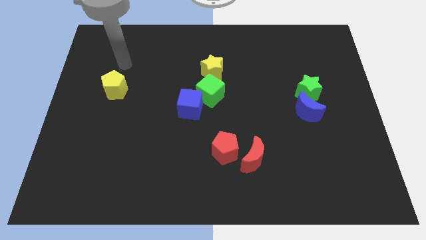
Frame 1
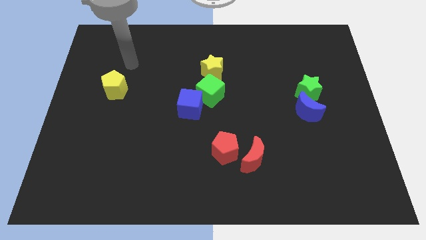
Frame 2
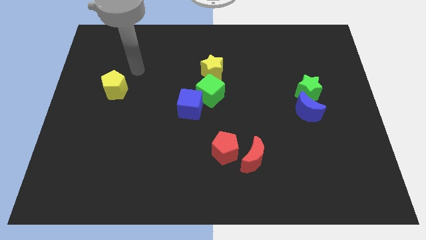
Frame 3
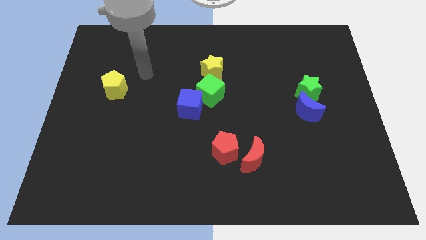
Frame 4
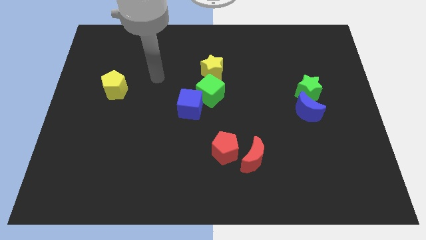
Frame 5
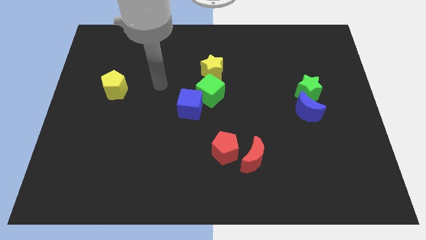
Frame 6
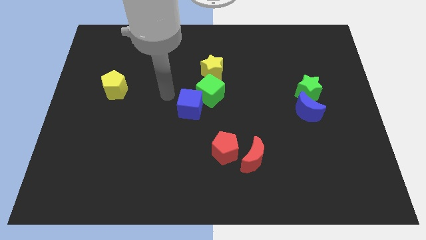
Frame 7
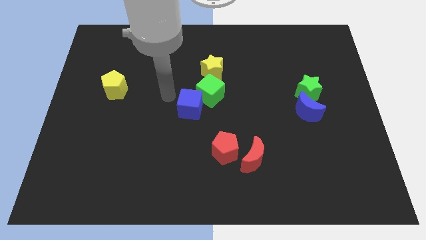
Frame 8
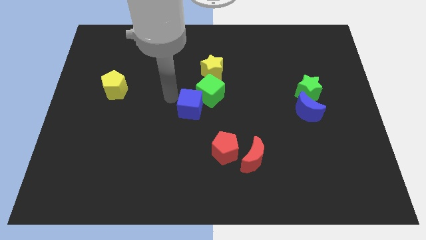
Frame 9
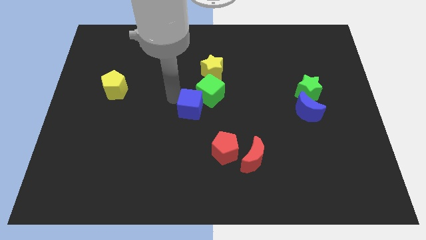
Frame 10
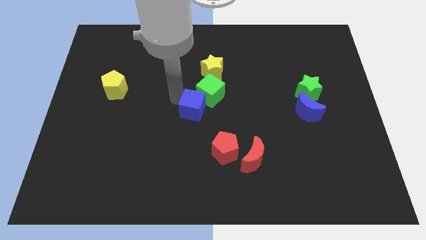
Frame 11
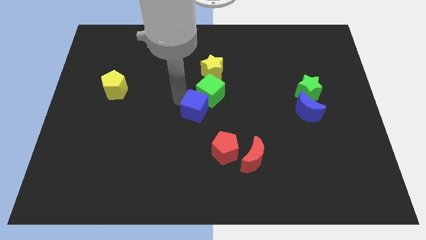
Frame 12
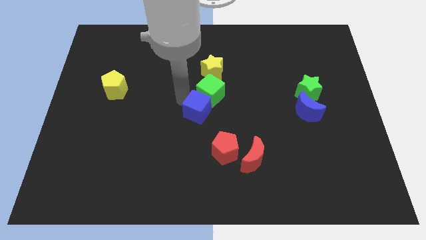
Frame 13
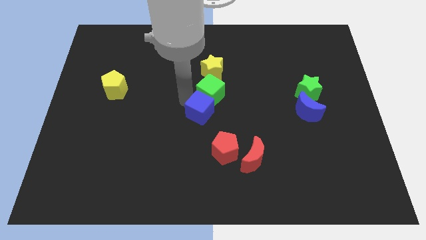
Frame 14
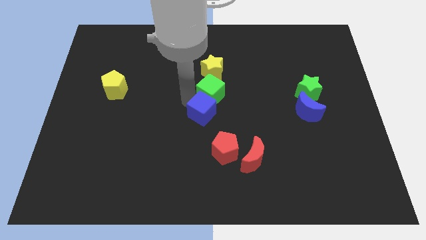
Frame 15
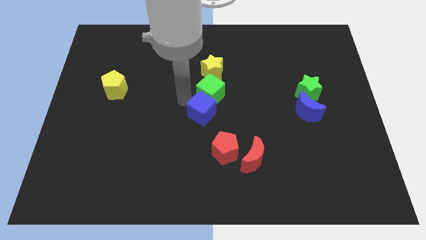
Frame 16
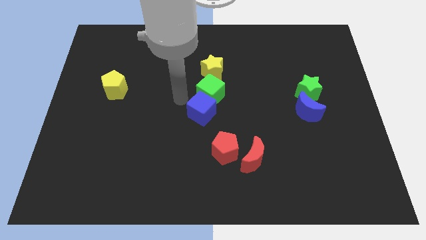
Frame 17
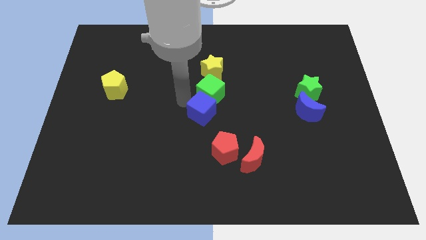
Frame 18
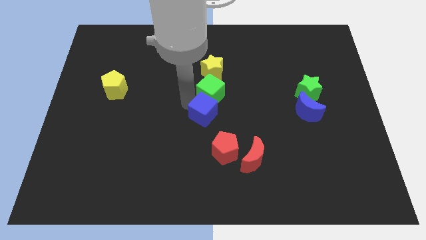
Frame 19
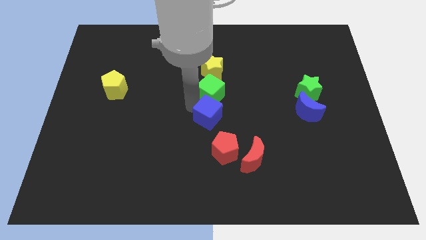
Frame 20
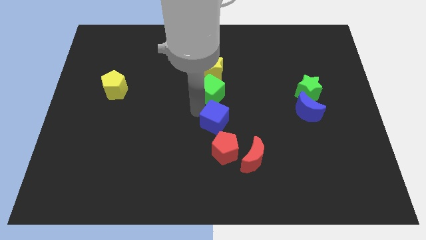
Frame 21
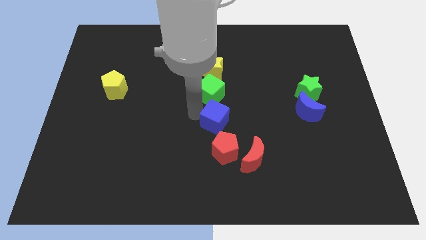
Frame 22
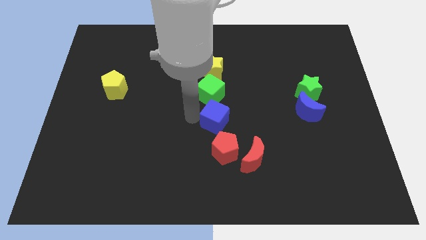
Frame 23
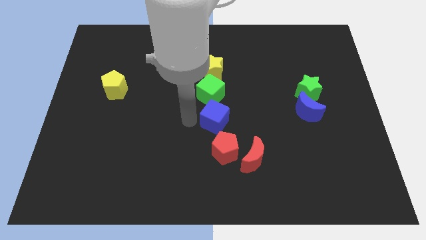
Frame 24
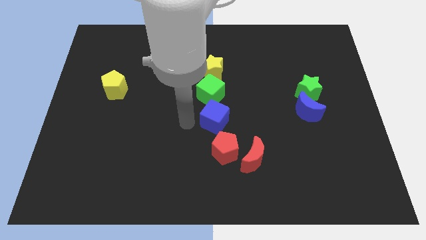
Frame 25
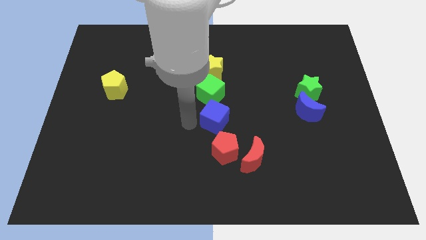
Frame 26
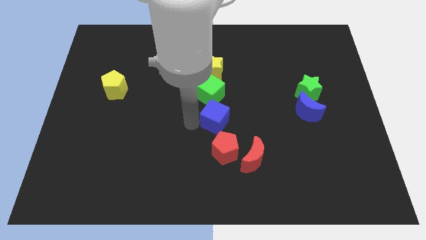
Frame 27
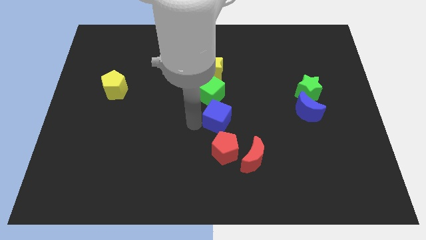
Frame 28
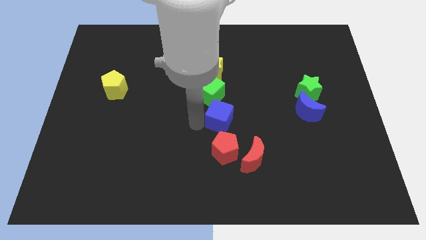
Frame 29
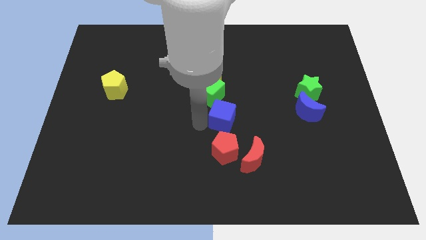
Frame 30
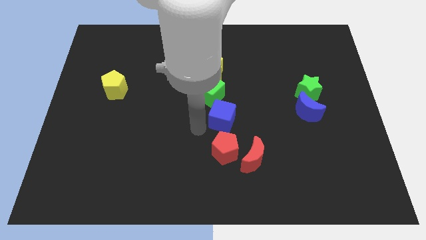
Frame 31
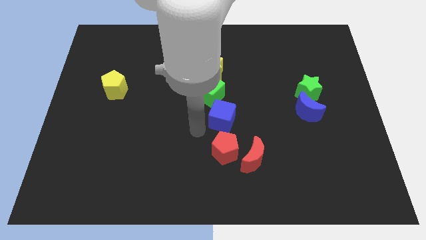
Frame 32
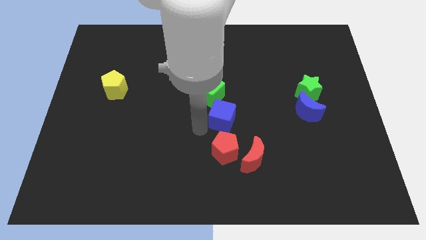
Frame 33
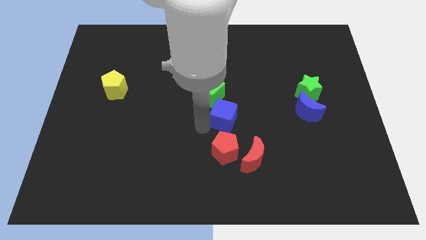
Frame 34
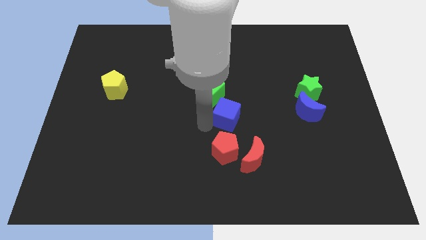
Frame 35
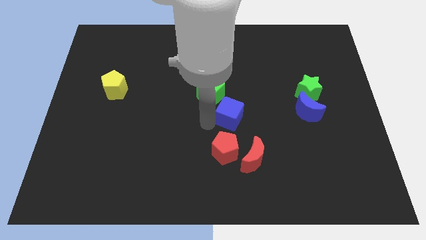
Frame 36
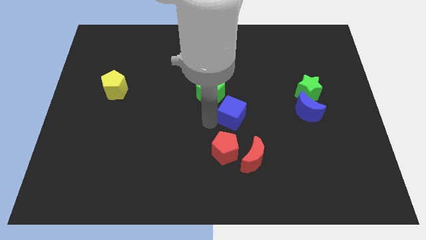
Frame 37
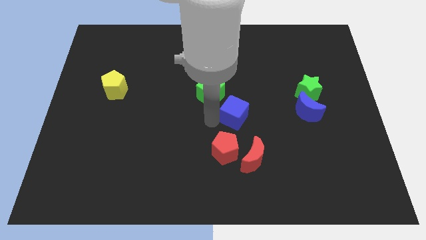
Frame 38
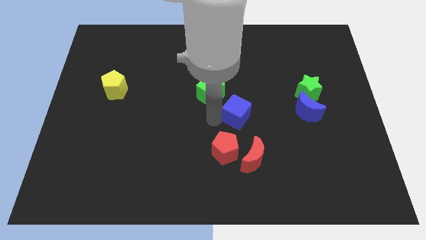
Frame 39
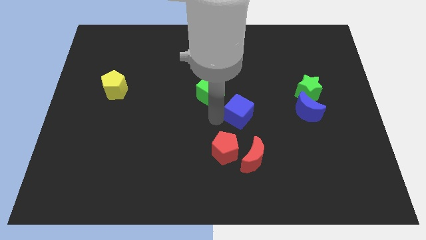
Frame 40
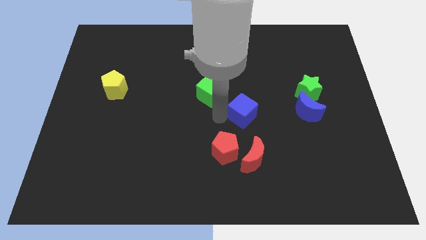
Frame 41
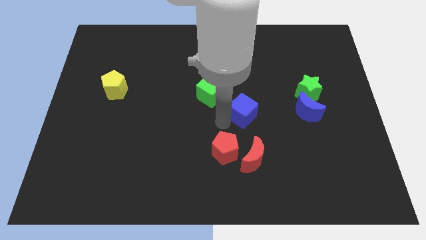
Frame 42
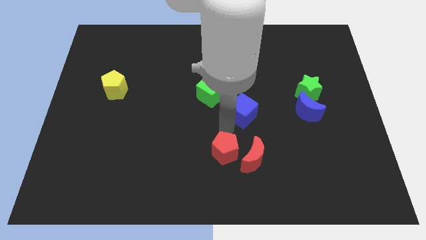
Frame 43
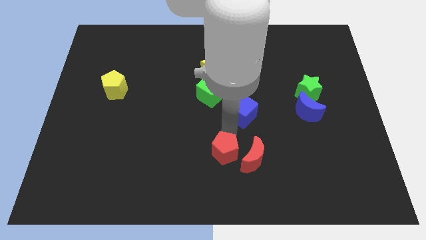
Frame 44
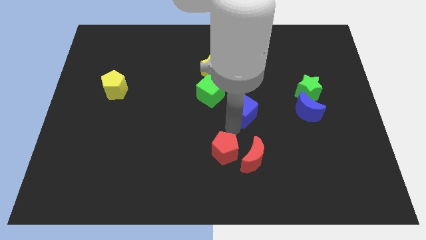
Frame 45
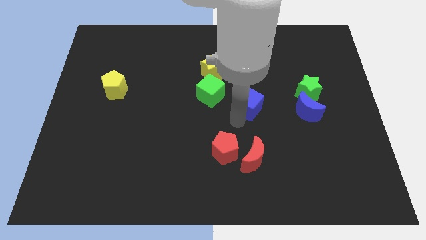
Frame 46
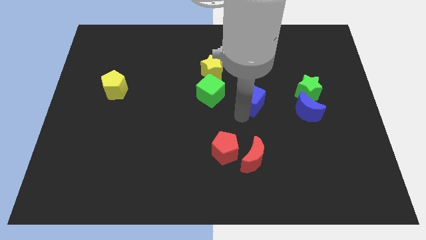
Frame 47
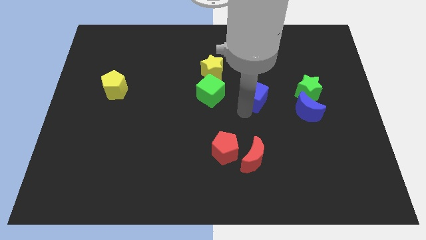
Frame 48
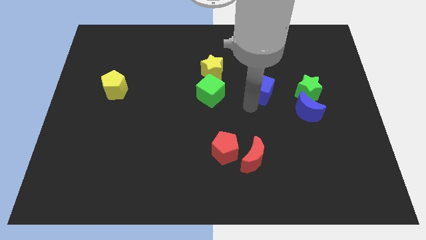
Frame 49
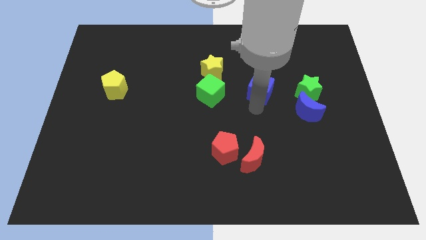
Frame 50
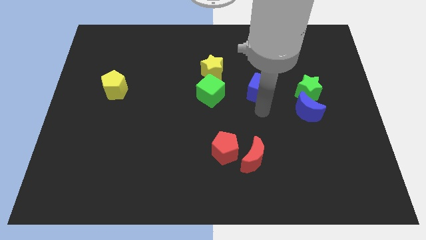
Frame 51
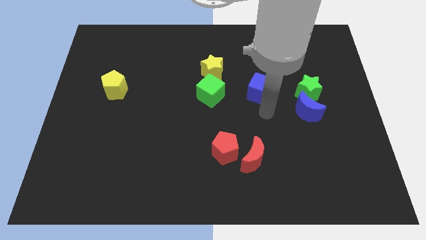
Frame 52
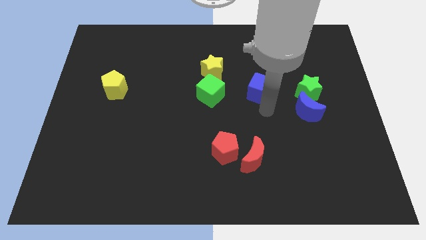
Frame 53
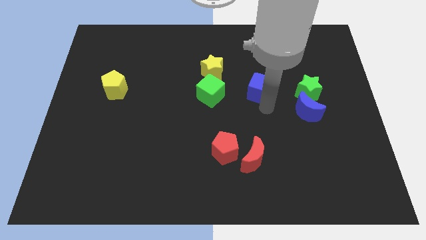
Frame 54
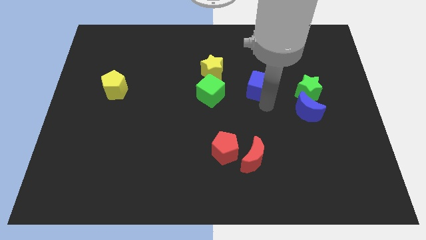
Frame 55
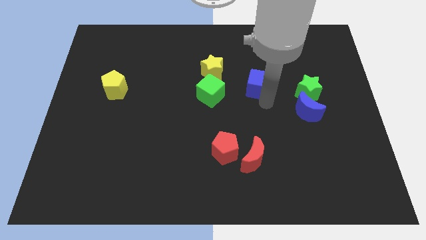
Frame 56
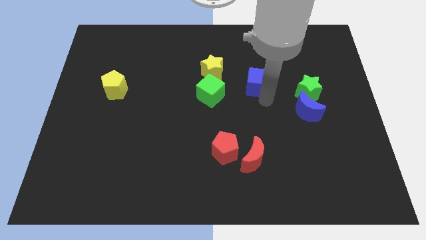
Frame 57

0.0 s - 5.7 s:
move the blue cube just right of the yellow star

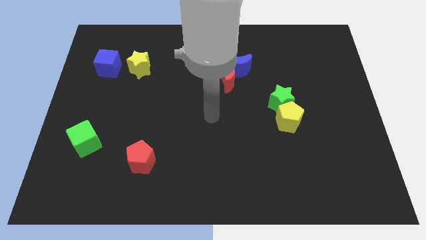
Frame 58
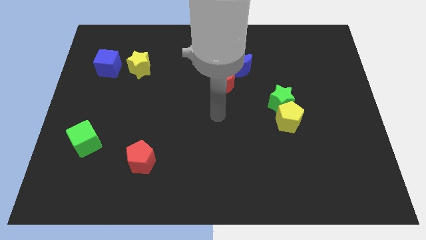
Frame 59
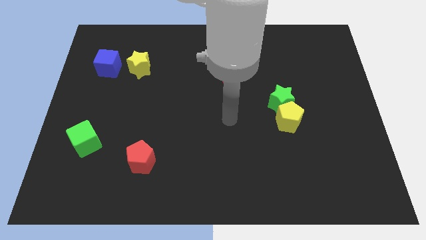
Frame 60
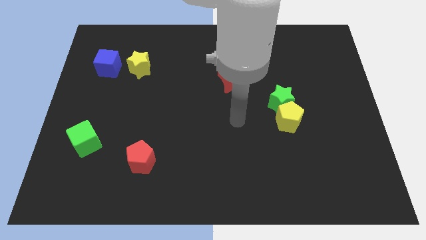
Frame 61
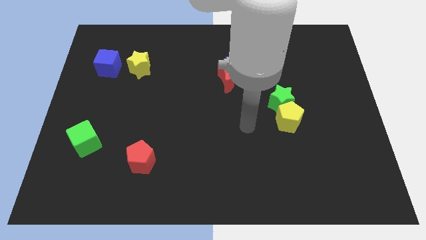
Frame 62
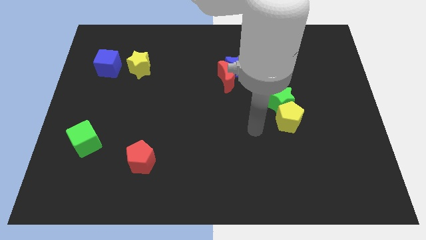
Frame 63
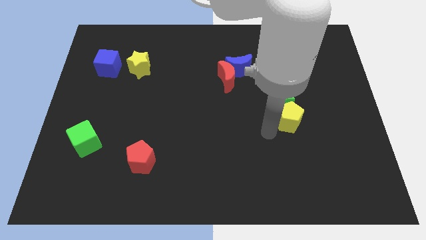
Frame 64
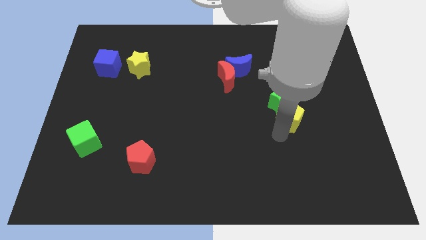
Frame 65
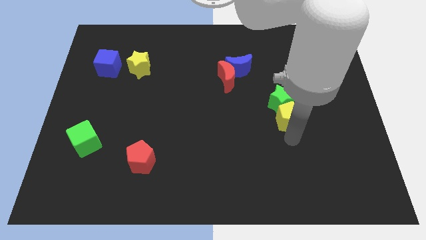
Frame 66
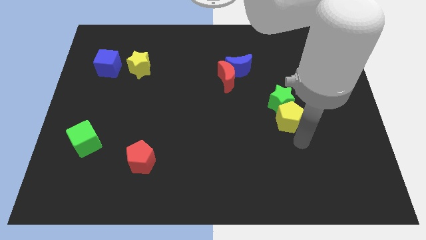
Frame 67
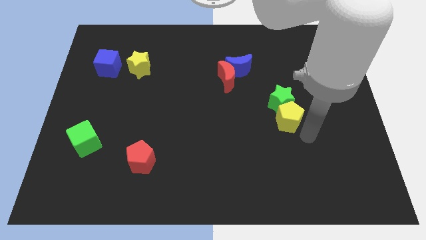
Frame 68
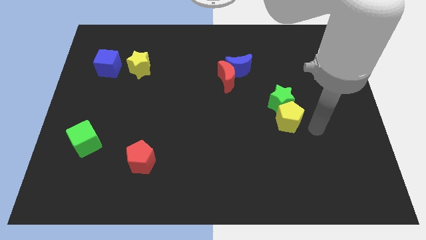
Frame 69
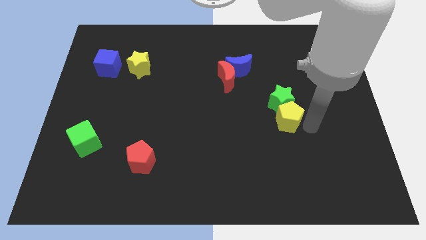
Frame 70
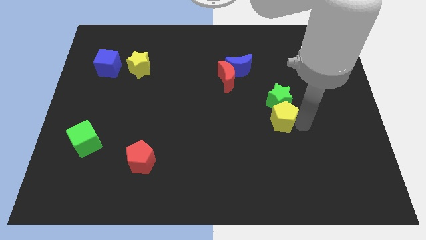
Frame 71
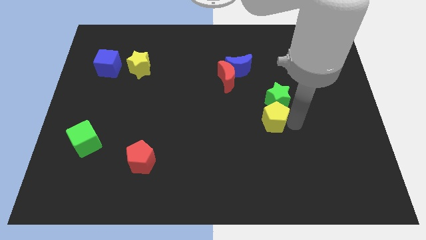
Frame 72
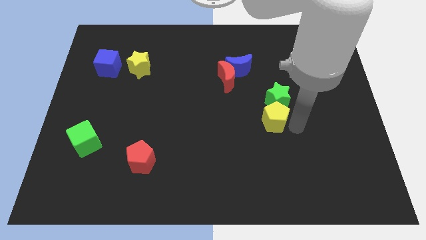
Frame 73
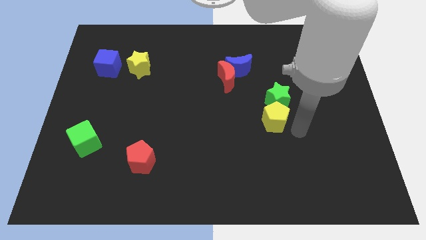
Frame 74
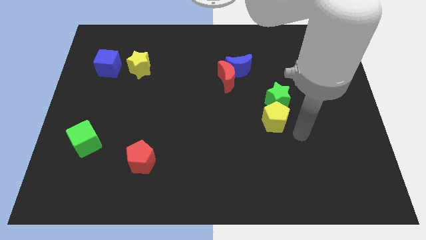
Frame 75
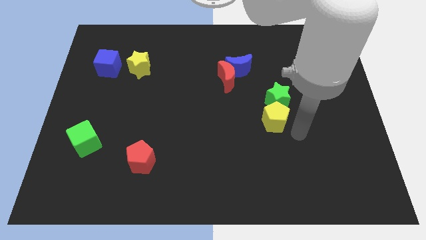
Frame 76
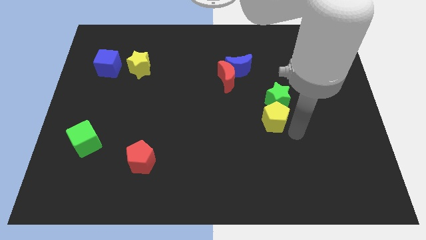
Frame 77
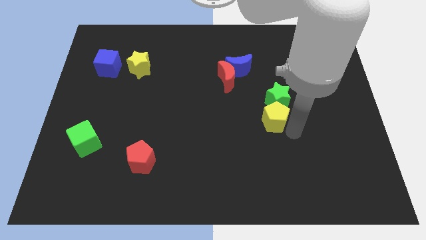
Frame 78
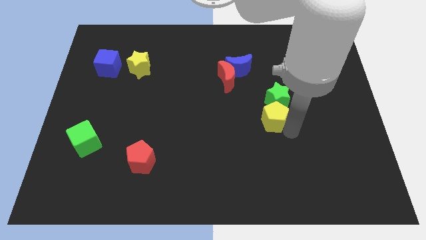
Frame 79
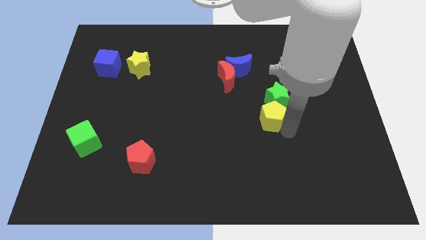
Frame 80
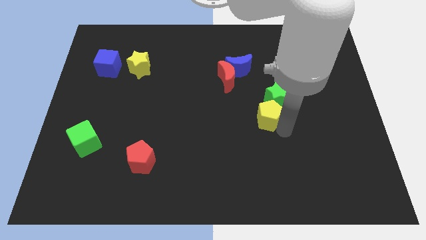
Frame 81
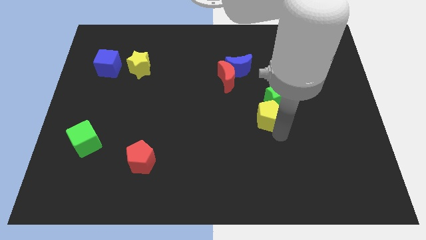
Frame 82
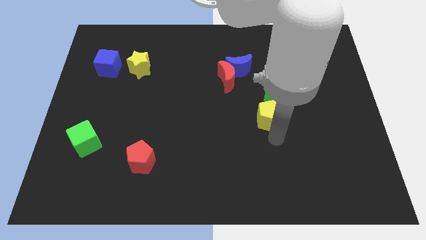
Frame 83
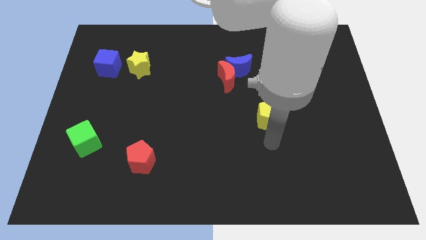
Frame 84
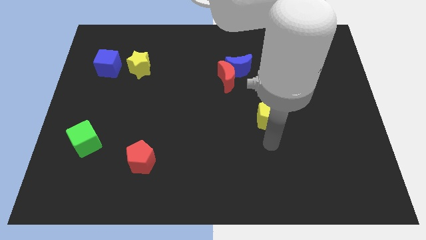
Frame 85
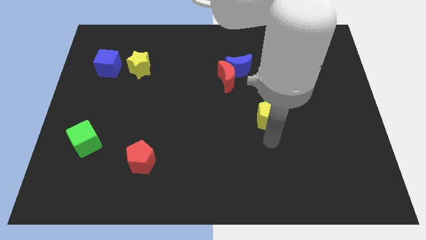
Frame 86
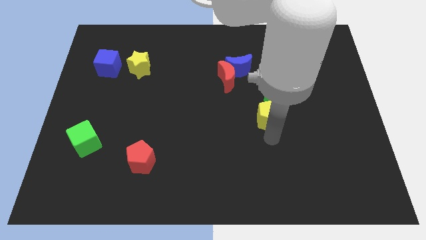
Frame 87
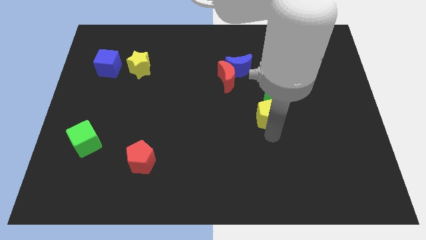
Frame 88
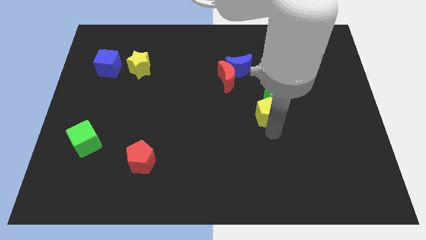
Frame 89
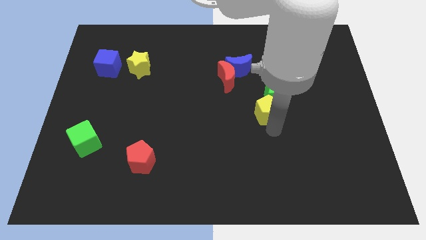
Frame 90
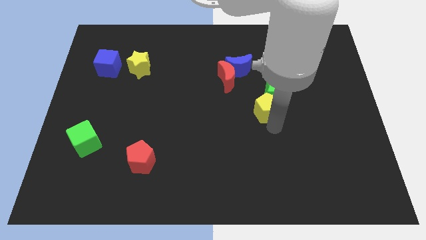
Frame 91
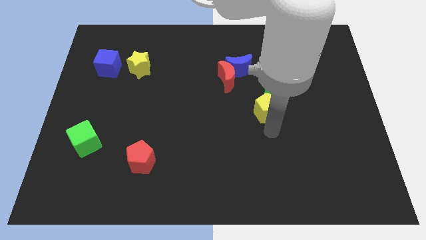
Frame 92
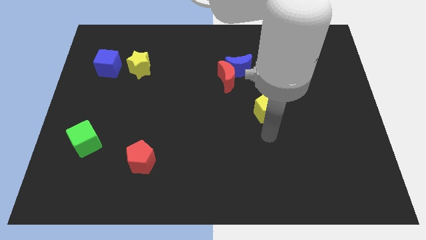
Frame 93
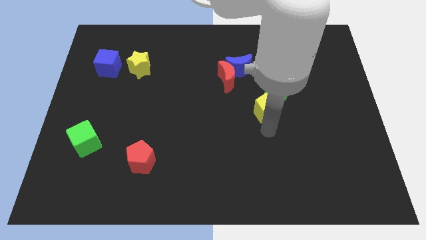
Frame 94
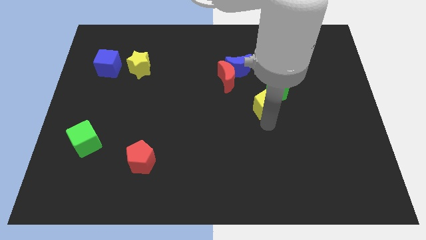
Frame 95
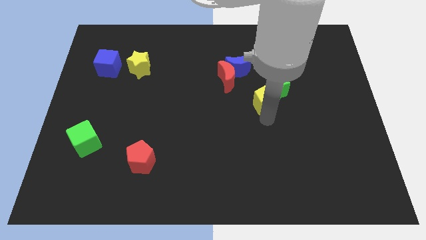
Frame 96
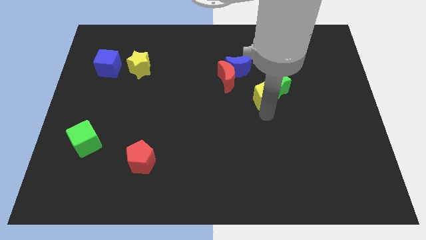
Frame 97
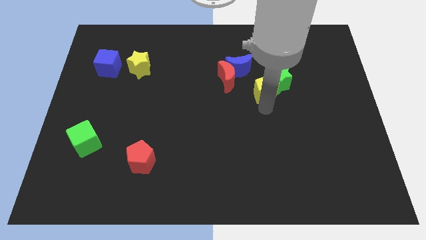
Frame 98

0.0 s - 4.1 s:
slide the yellow pentagon right of the red moon
